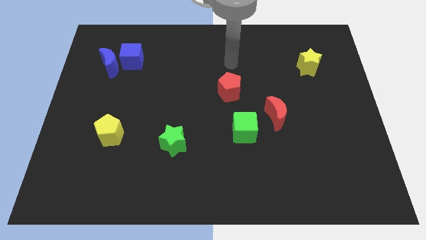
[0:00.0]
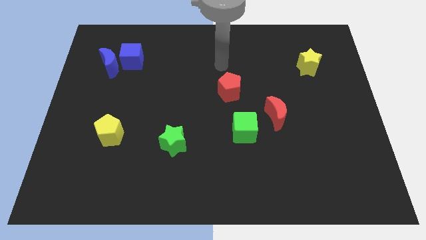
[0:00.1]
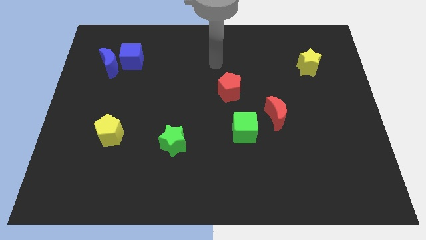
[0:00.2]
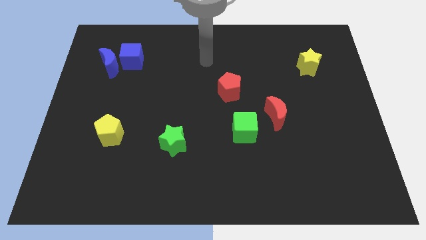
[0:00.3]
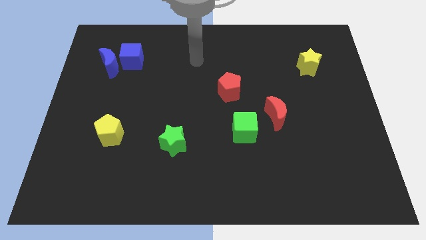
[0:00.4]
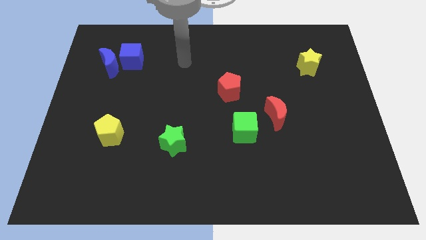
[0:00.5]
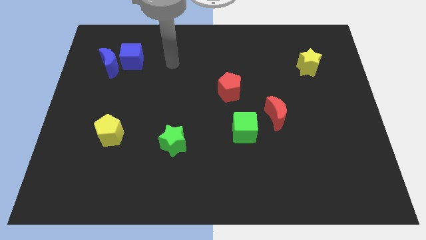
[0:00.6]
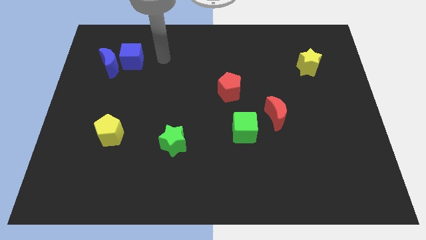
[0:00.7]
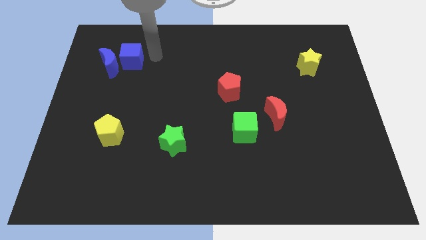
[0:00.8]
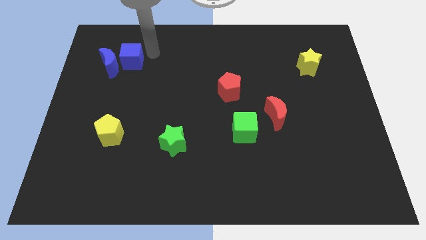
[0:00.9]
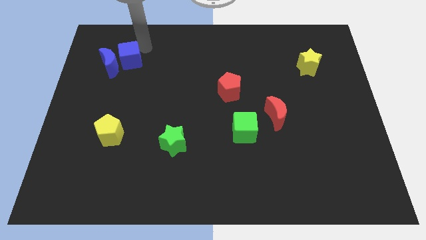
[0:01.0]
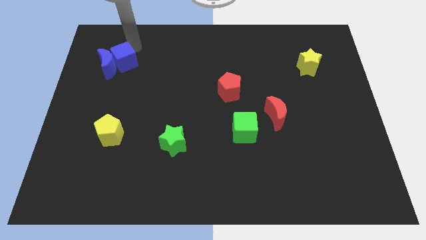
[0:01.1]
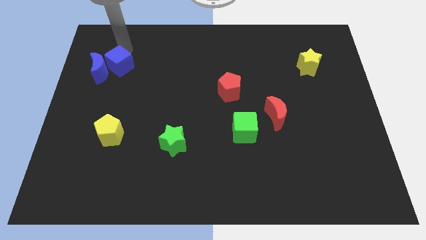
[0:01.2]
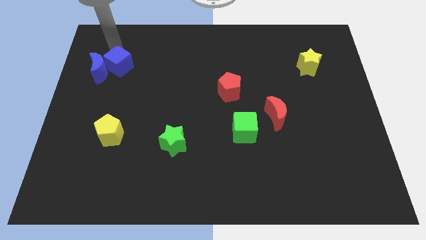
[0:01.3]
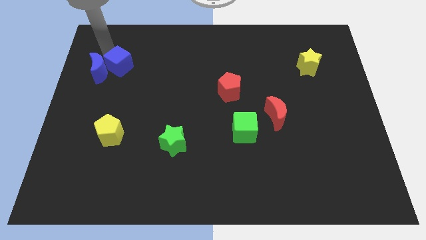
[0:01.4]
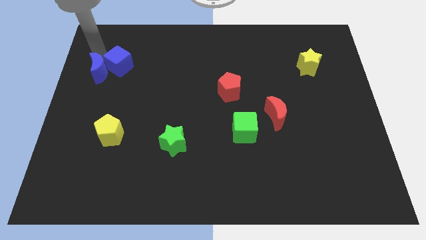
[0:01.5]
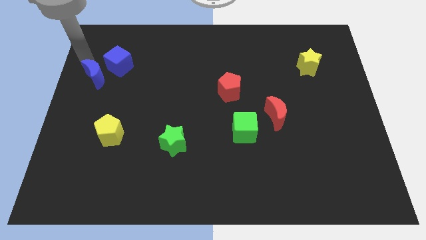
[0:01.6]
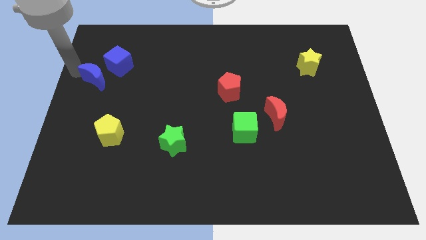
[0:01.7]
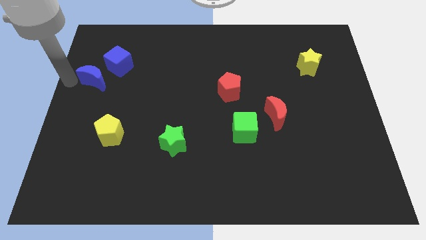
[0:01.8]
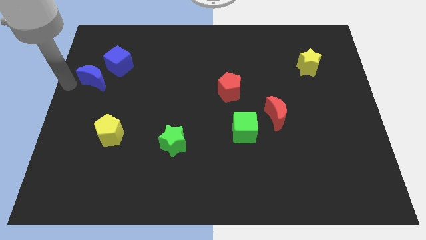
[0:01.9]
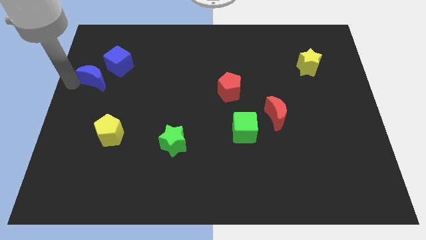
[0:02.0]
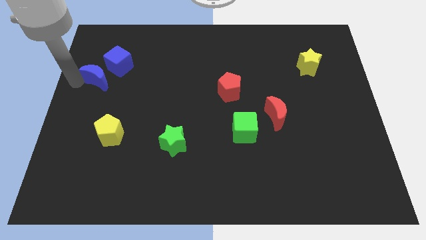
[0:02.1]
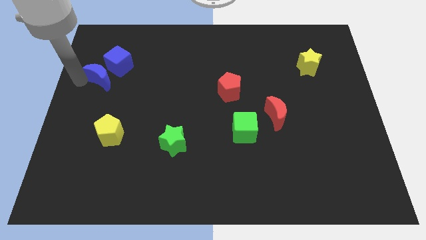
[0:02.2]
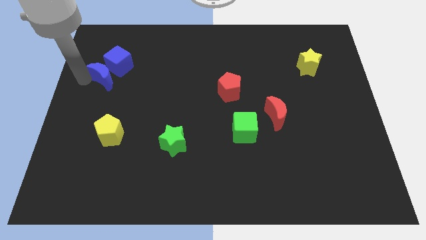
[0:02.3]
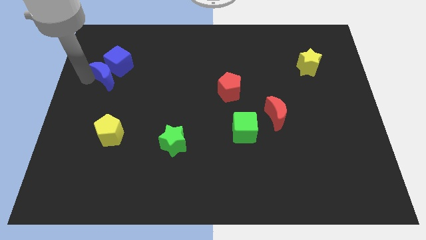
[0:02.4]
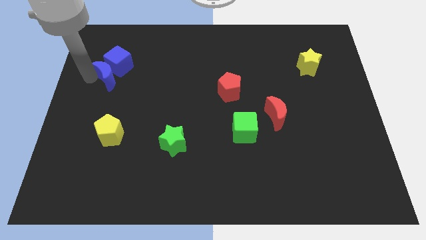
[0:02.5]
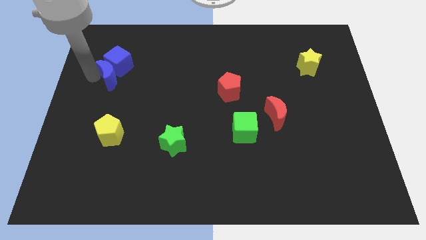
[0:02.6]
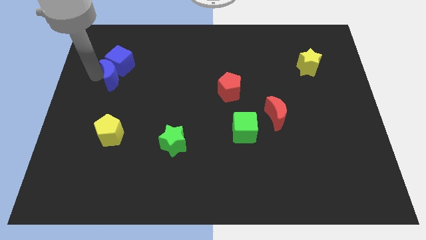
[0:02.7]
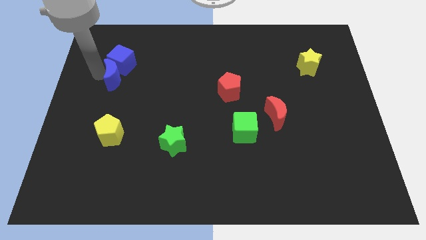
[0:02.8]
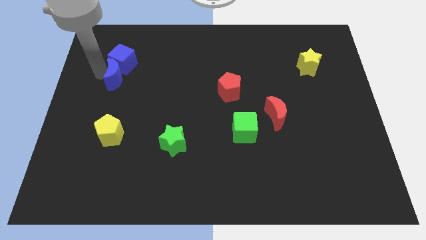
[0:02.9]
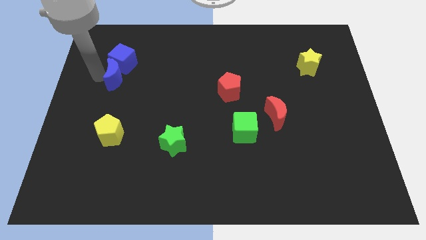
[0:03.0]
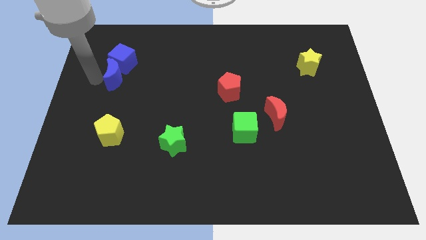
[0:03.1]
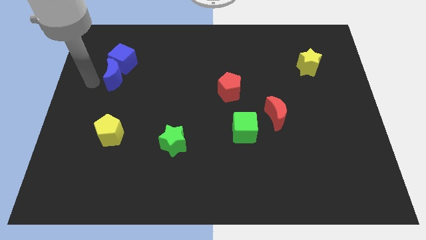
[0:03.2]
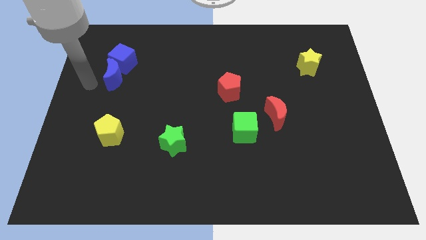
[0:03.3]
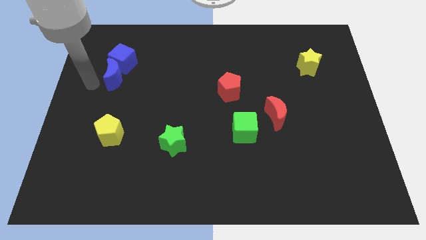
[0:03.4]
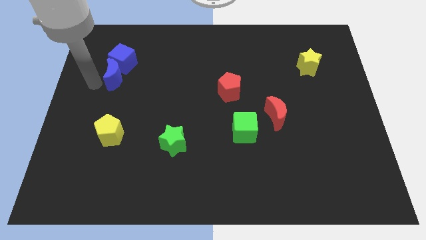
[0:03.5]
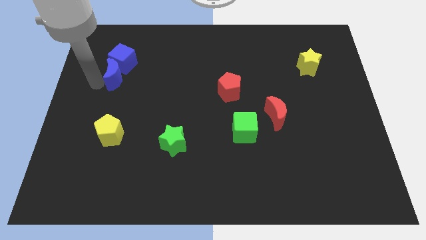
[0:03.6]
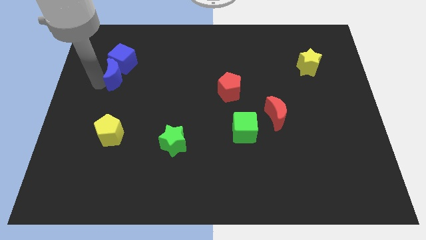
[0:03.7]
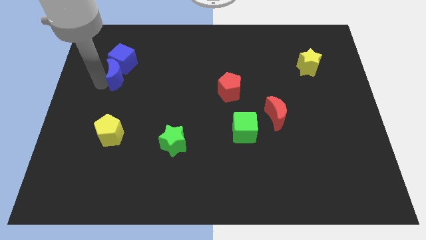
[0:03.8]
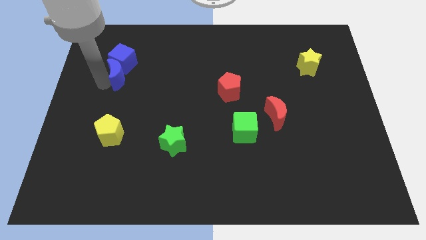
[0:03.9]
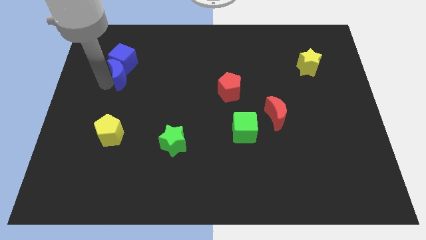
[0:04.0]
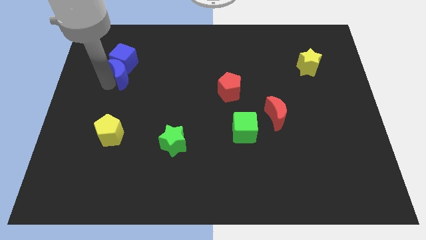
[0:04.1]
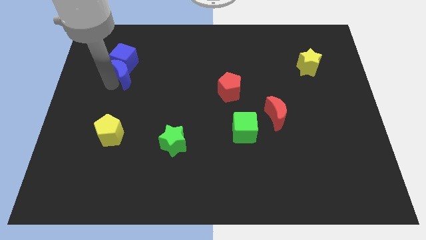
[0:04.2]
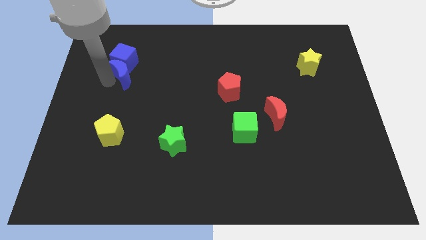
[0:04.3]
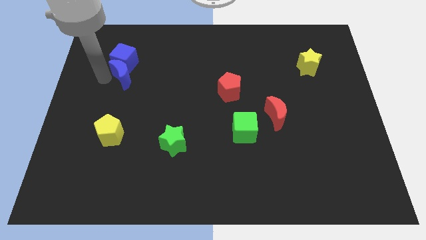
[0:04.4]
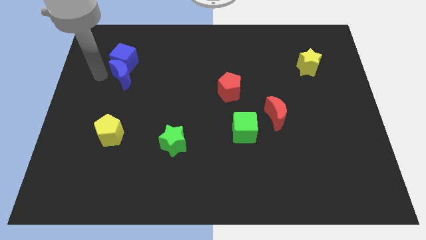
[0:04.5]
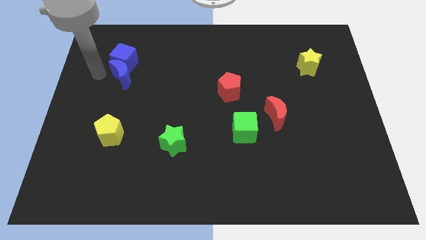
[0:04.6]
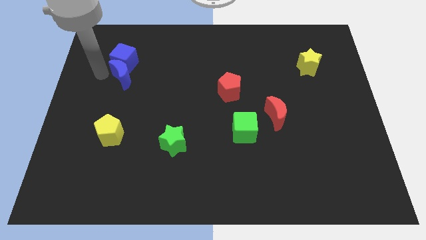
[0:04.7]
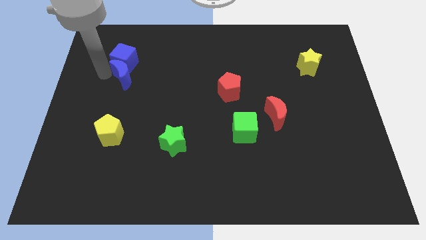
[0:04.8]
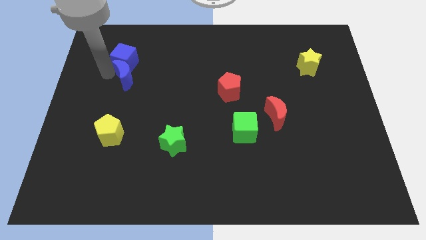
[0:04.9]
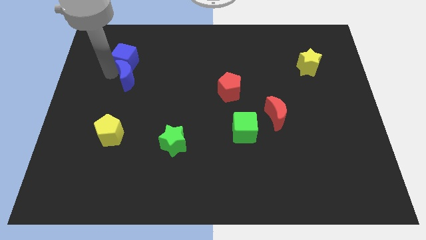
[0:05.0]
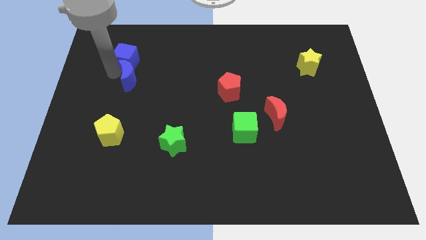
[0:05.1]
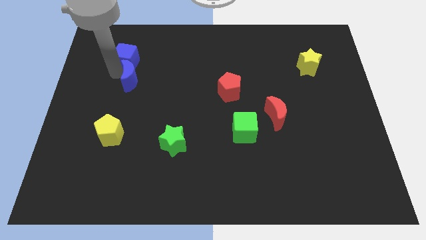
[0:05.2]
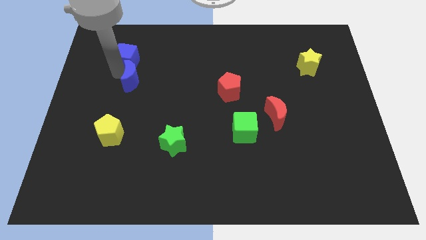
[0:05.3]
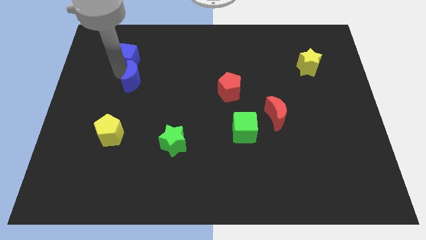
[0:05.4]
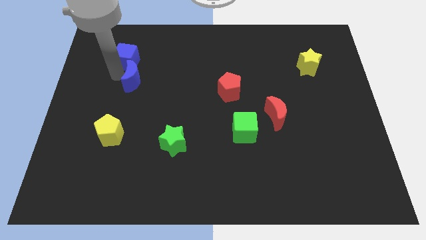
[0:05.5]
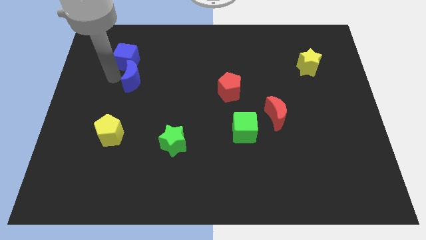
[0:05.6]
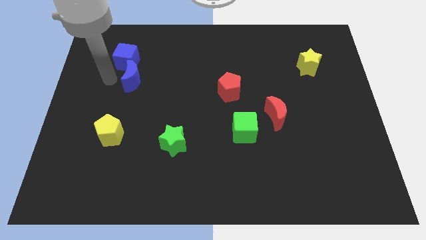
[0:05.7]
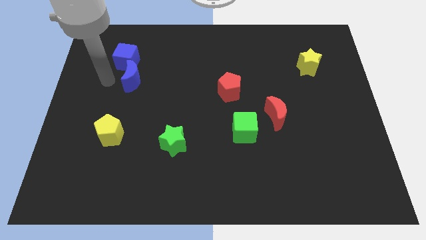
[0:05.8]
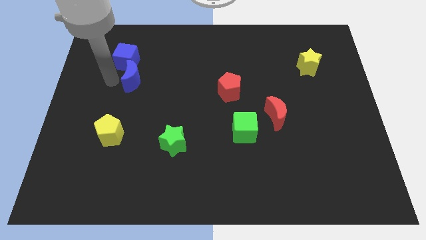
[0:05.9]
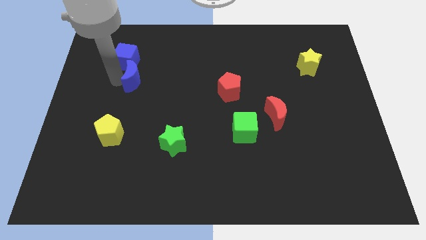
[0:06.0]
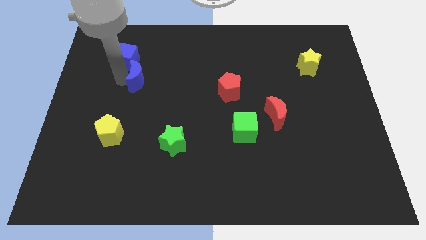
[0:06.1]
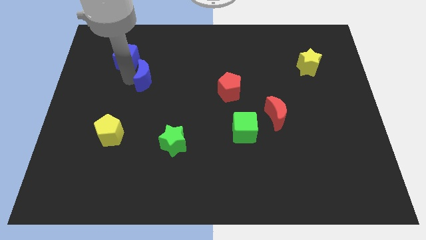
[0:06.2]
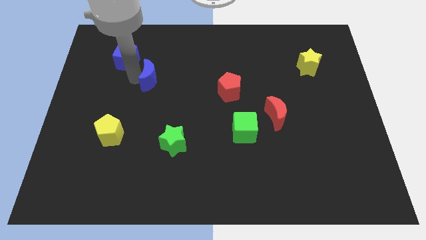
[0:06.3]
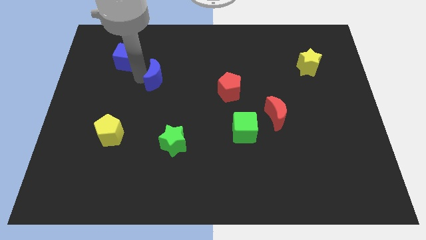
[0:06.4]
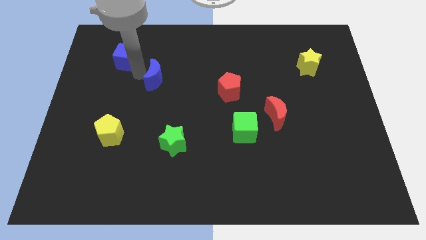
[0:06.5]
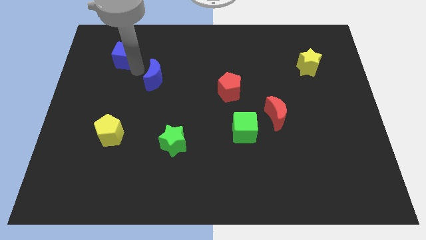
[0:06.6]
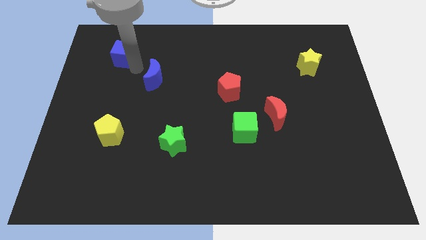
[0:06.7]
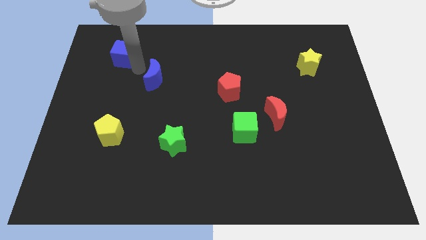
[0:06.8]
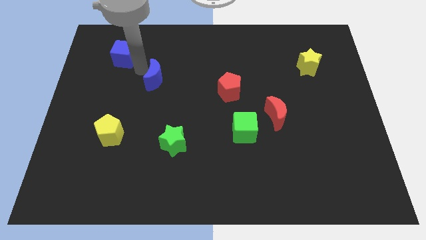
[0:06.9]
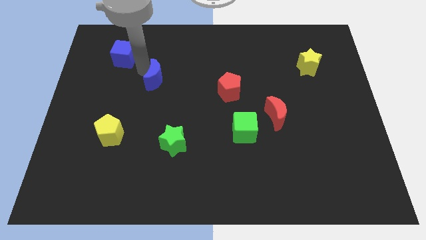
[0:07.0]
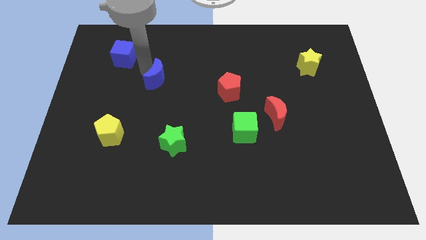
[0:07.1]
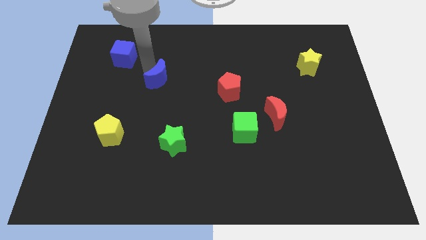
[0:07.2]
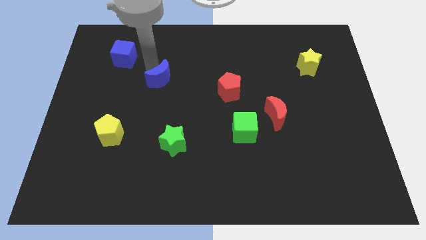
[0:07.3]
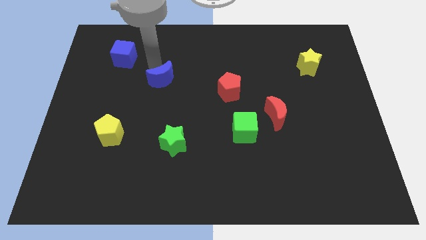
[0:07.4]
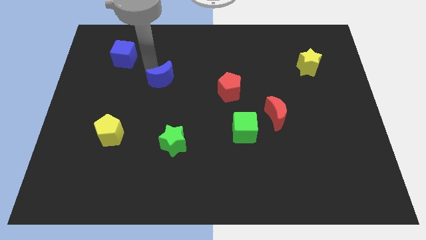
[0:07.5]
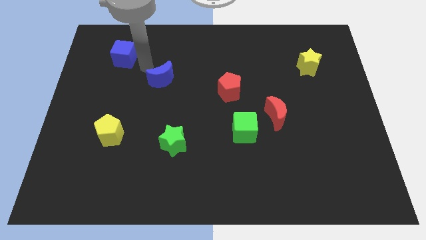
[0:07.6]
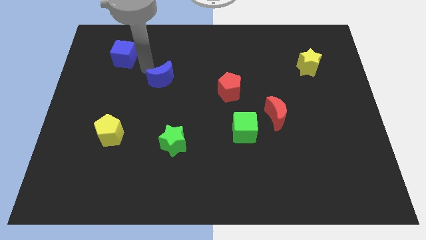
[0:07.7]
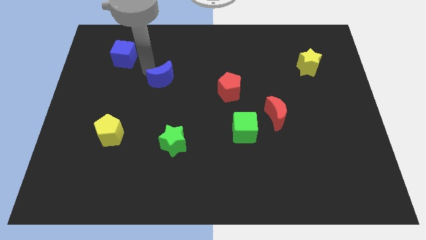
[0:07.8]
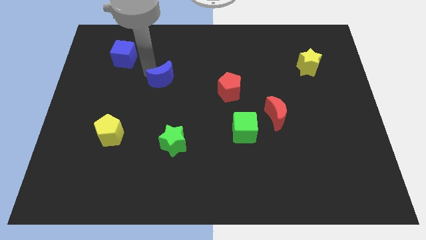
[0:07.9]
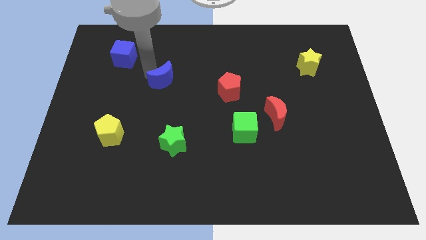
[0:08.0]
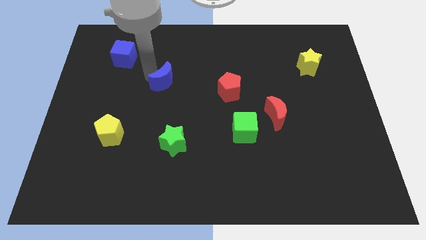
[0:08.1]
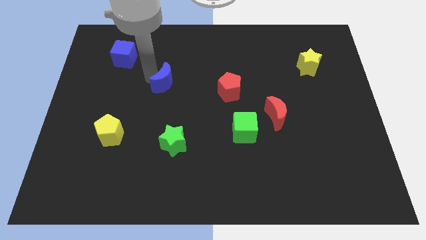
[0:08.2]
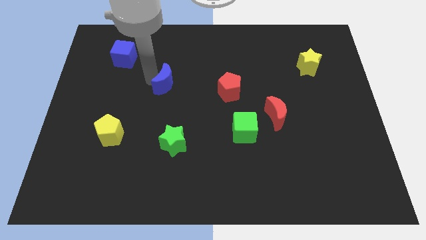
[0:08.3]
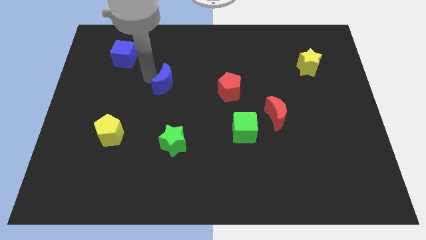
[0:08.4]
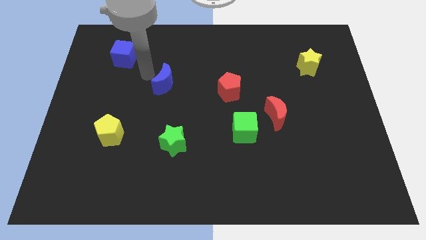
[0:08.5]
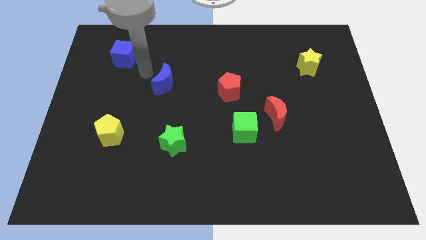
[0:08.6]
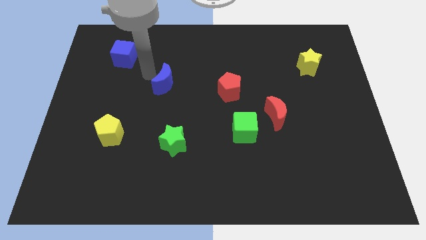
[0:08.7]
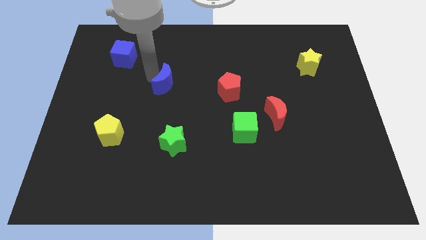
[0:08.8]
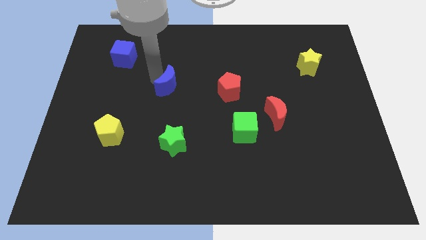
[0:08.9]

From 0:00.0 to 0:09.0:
slide the blue moon to the middle of the board
